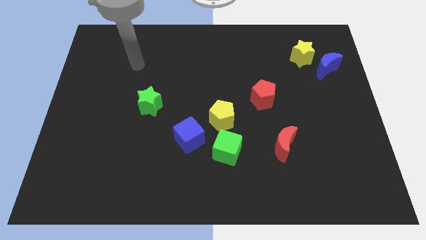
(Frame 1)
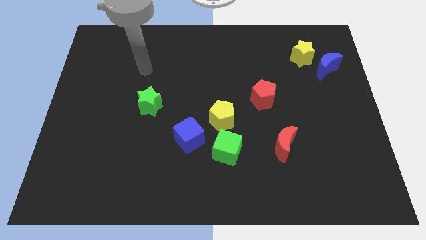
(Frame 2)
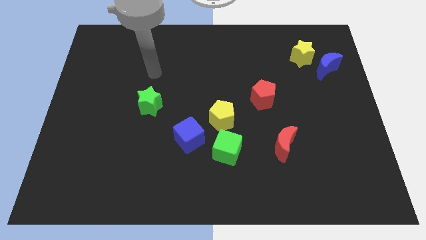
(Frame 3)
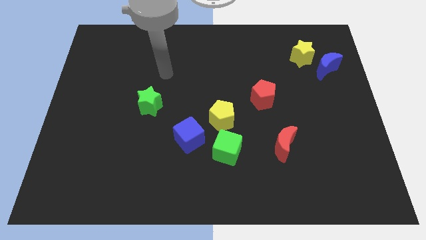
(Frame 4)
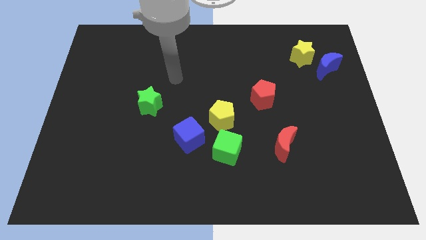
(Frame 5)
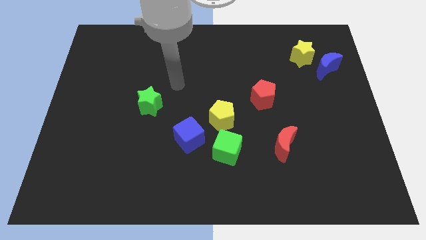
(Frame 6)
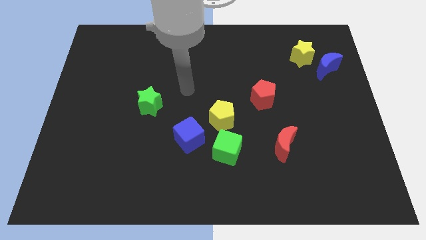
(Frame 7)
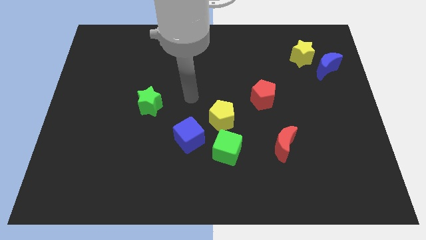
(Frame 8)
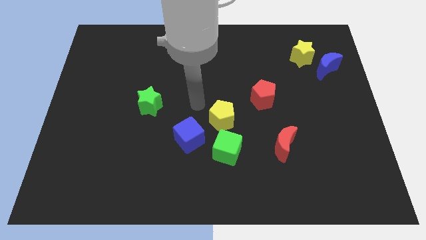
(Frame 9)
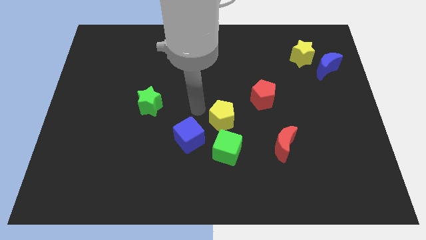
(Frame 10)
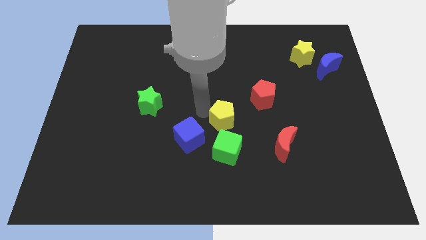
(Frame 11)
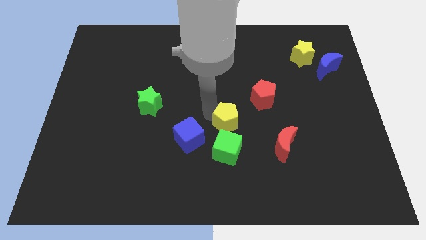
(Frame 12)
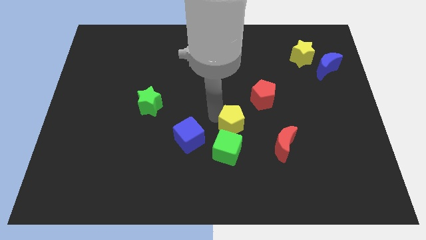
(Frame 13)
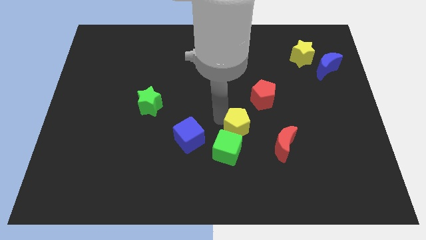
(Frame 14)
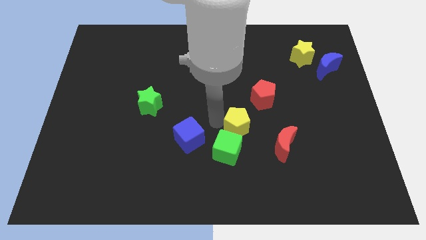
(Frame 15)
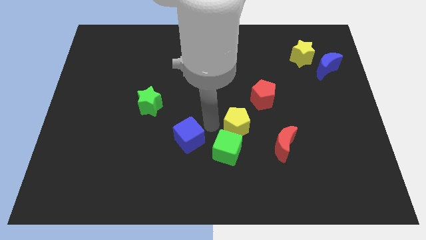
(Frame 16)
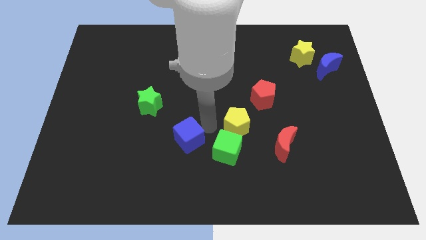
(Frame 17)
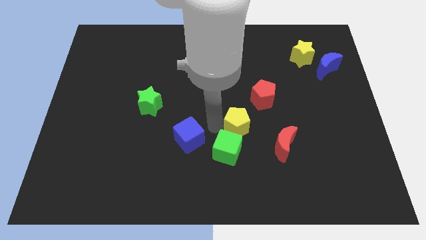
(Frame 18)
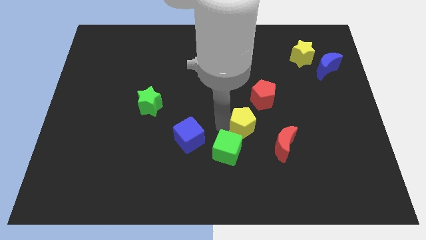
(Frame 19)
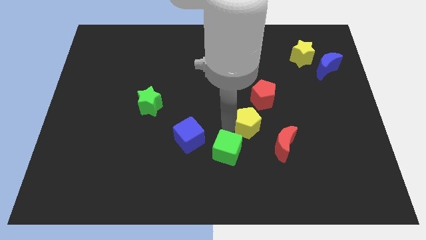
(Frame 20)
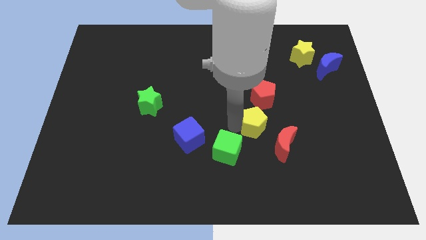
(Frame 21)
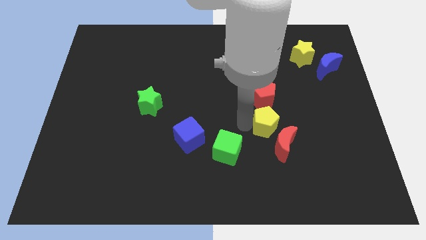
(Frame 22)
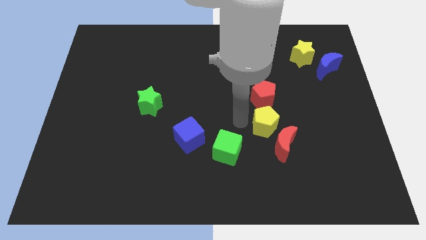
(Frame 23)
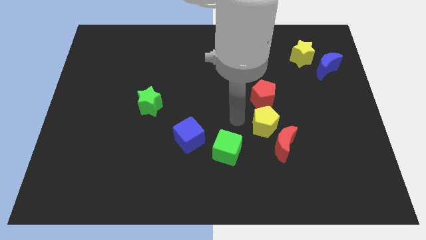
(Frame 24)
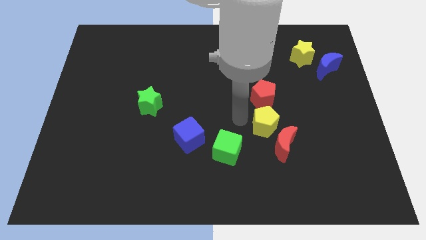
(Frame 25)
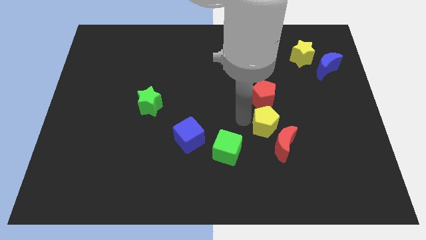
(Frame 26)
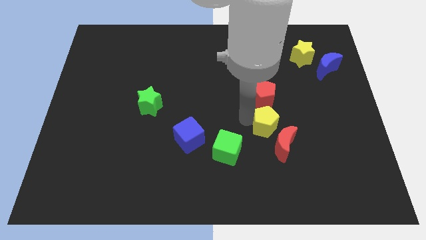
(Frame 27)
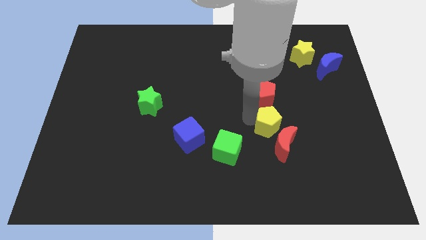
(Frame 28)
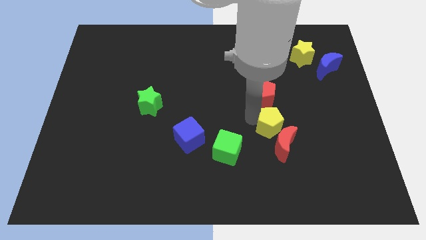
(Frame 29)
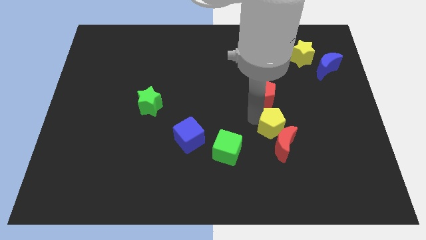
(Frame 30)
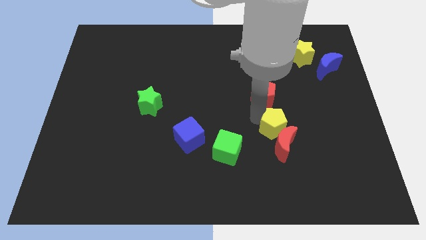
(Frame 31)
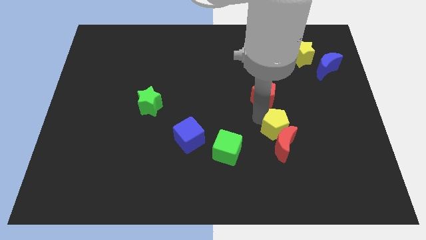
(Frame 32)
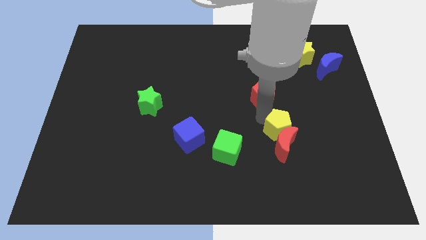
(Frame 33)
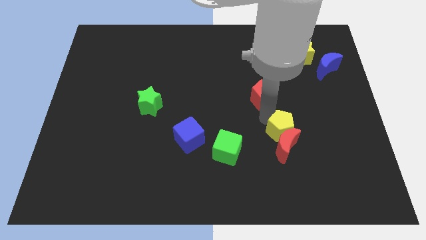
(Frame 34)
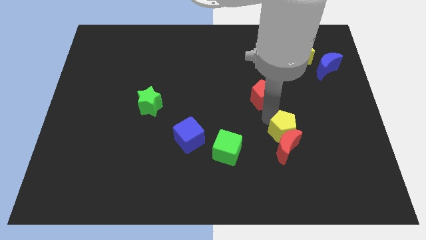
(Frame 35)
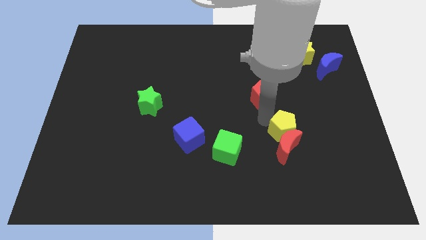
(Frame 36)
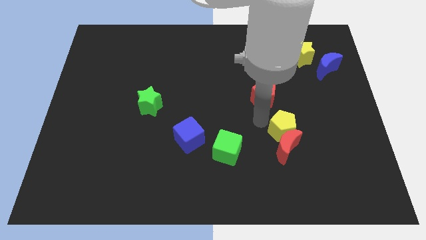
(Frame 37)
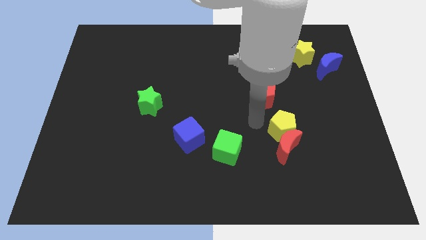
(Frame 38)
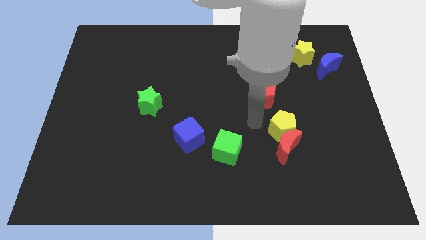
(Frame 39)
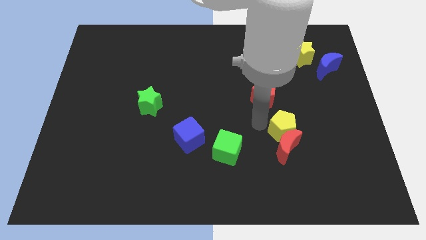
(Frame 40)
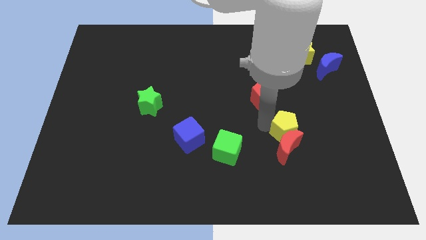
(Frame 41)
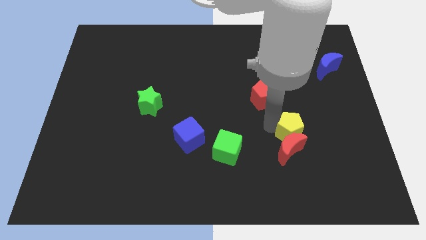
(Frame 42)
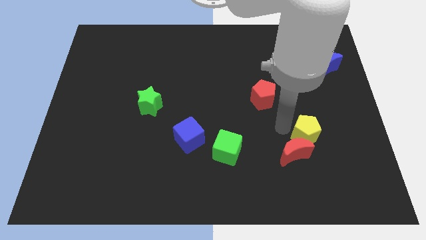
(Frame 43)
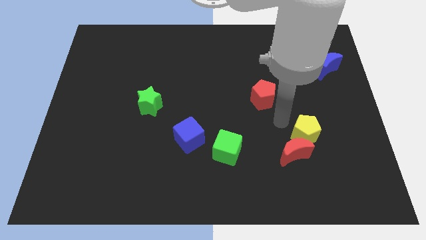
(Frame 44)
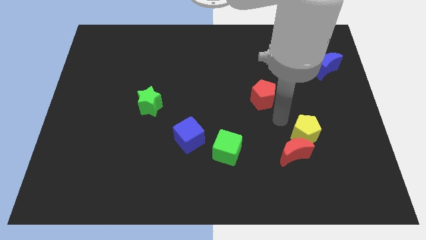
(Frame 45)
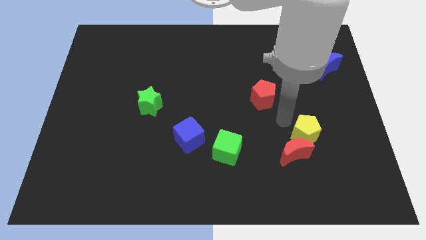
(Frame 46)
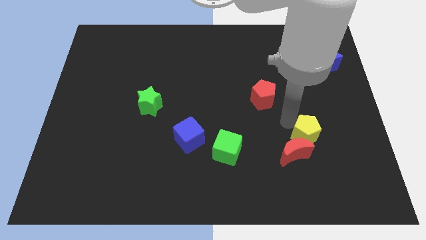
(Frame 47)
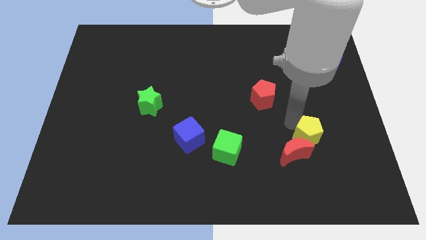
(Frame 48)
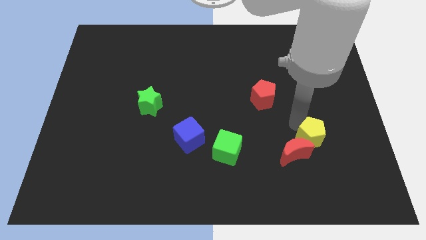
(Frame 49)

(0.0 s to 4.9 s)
put the yellow pentagon to the right of the red moon

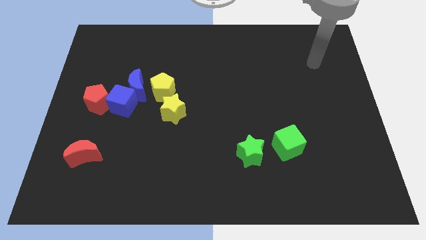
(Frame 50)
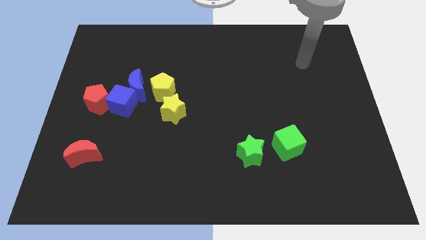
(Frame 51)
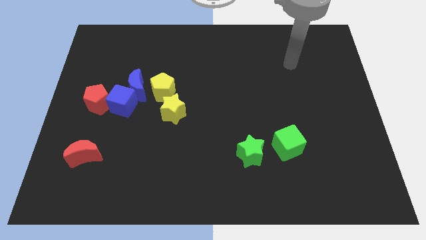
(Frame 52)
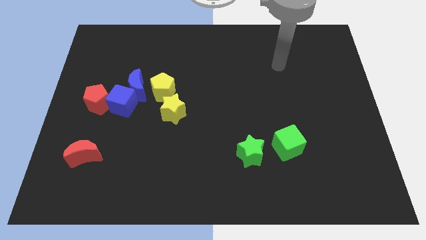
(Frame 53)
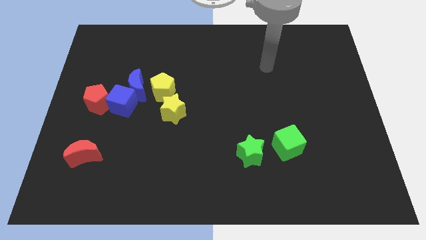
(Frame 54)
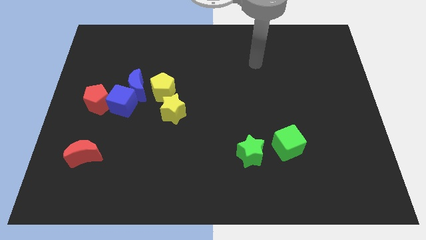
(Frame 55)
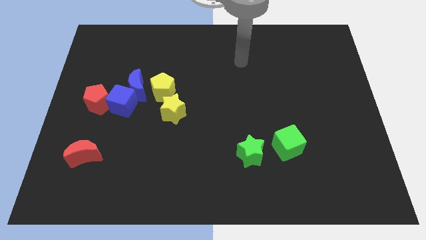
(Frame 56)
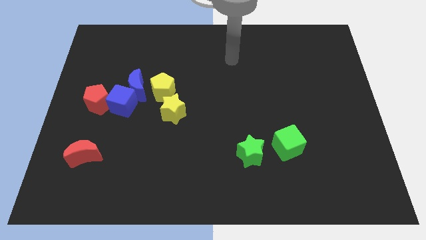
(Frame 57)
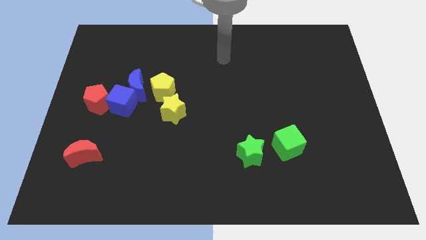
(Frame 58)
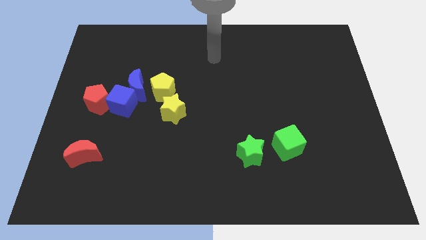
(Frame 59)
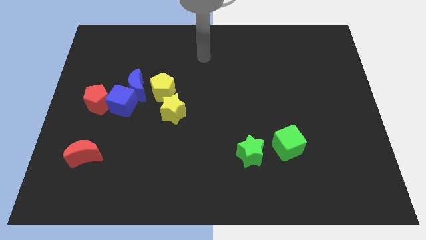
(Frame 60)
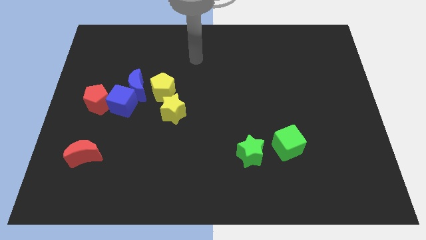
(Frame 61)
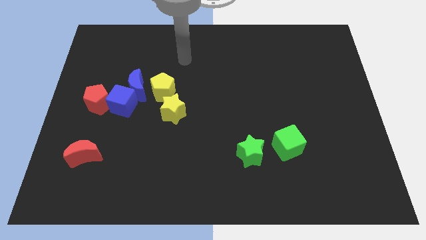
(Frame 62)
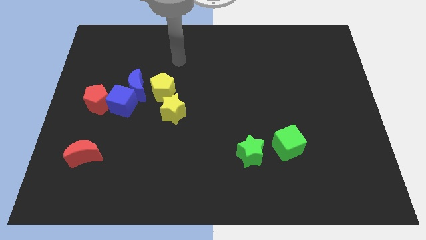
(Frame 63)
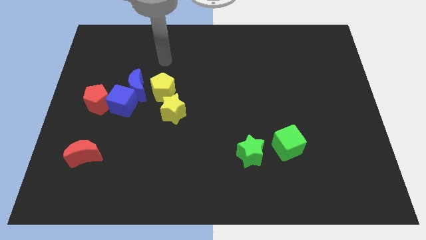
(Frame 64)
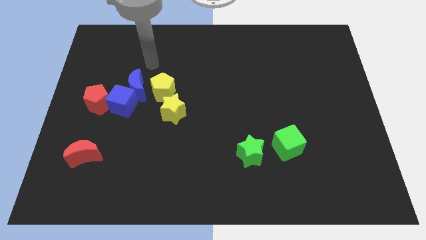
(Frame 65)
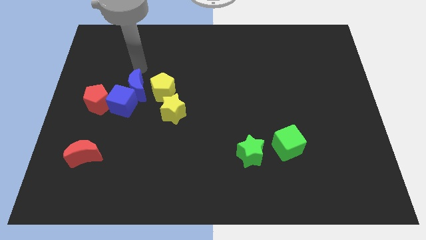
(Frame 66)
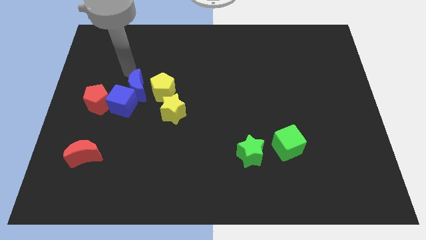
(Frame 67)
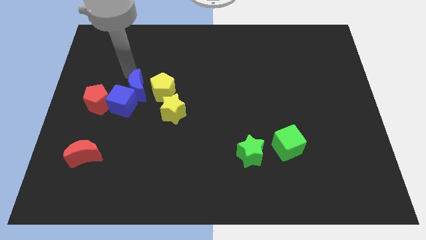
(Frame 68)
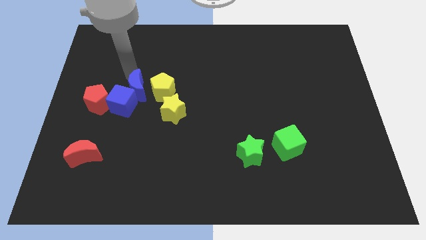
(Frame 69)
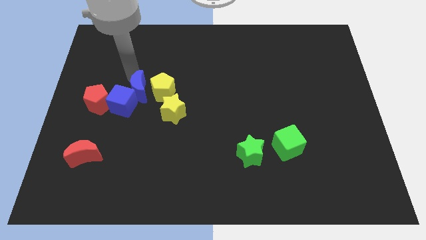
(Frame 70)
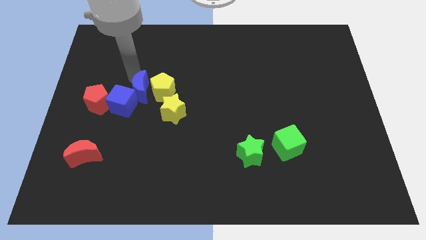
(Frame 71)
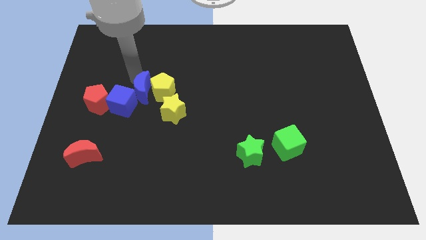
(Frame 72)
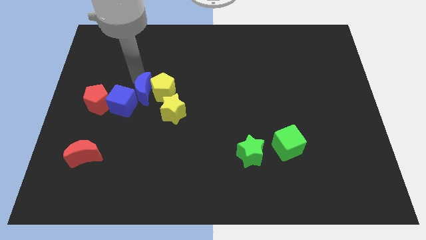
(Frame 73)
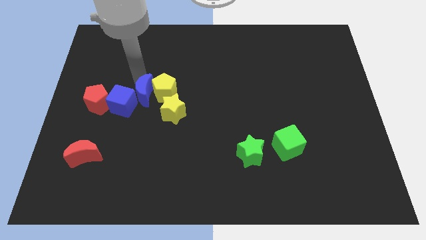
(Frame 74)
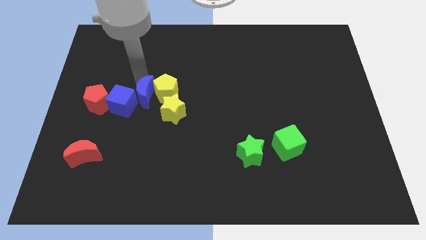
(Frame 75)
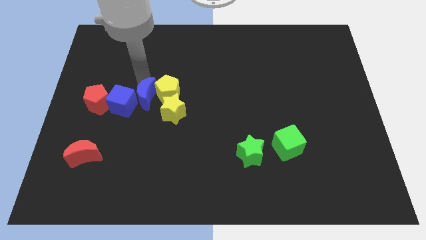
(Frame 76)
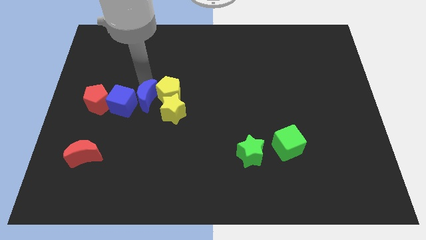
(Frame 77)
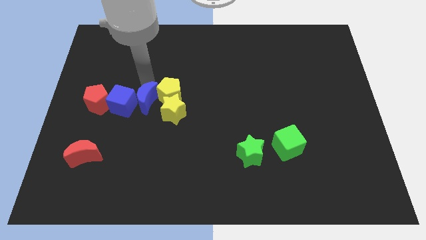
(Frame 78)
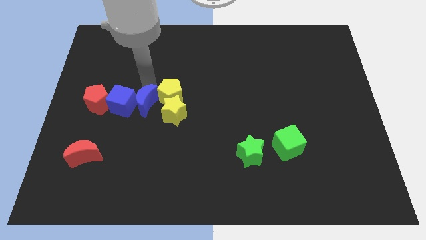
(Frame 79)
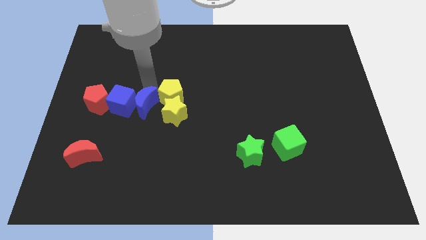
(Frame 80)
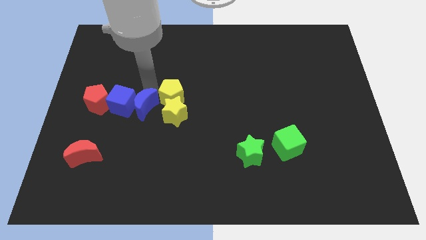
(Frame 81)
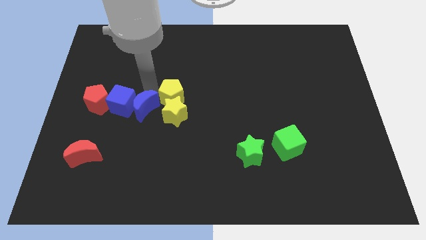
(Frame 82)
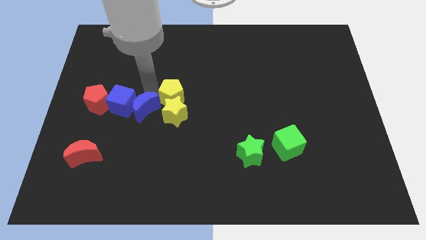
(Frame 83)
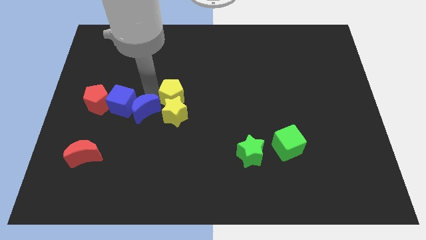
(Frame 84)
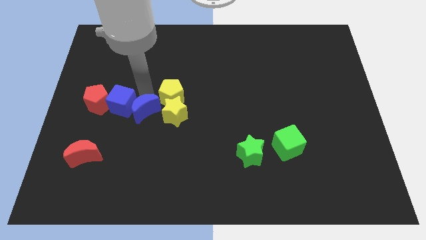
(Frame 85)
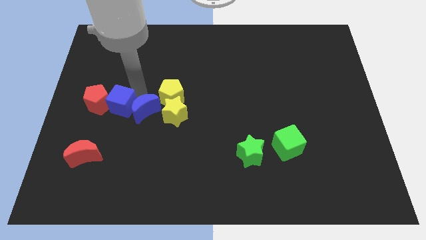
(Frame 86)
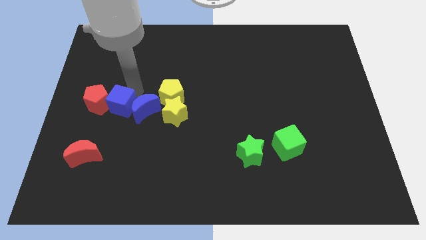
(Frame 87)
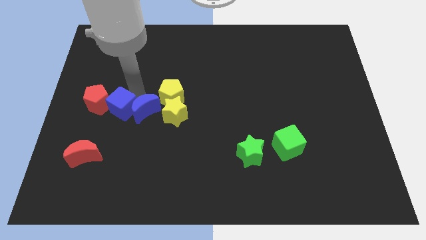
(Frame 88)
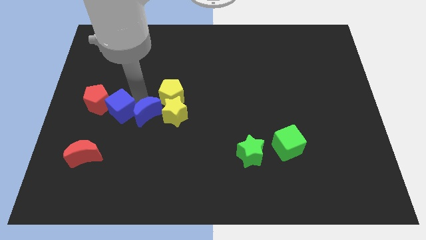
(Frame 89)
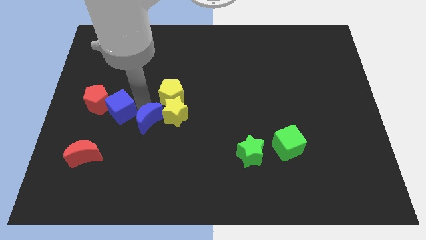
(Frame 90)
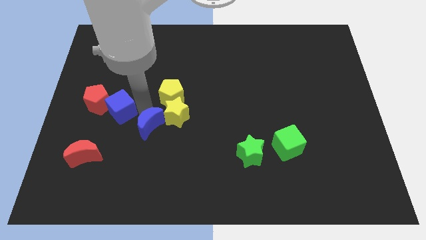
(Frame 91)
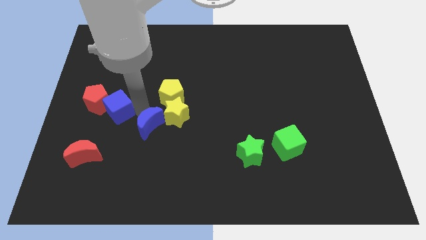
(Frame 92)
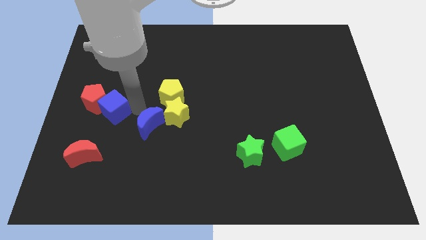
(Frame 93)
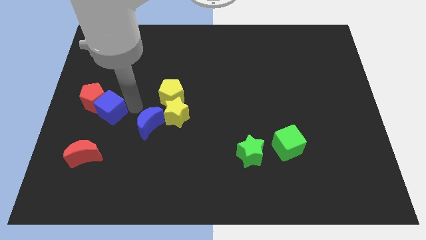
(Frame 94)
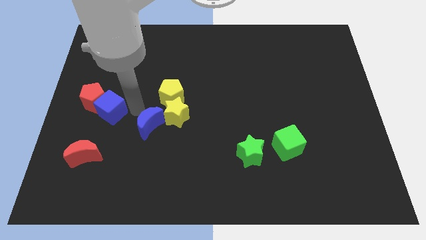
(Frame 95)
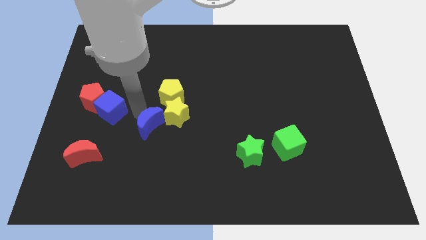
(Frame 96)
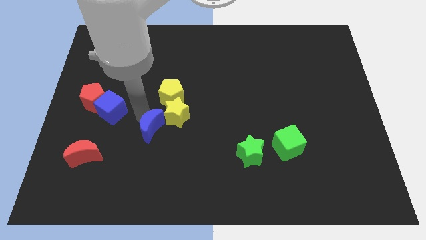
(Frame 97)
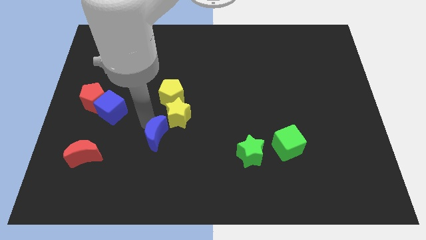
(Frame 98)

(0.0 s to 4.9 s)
slide the blue moon to the bottom of the yellow star
